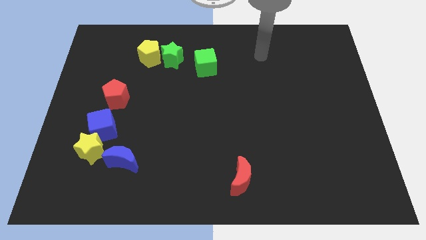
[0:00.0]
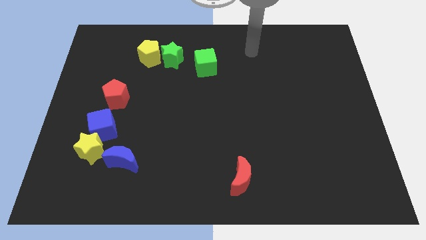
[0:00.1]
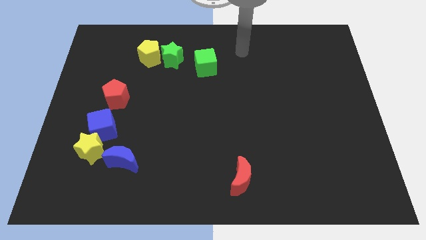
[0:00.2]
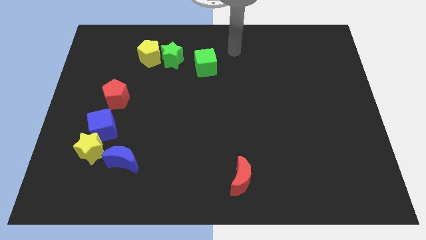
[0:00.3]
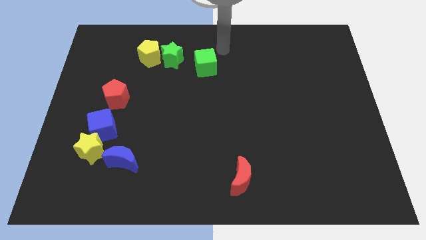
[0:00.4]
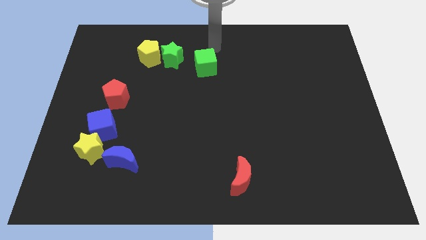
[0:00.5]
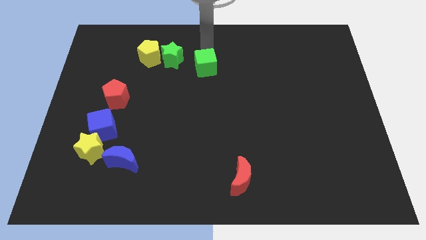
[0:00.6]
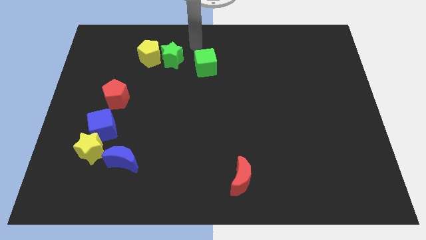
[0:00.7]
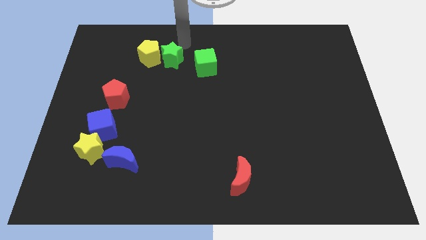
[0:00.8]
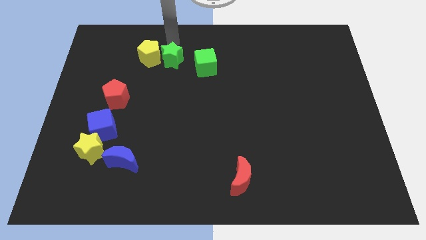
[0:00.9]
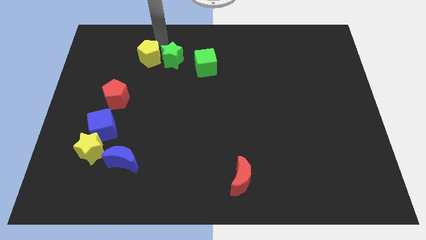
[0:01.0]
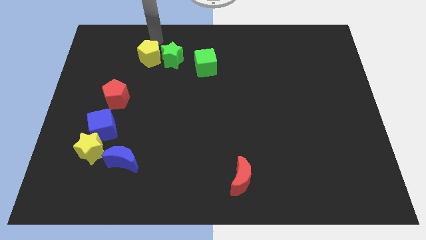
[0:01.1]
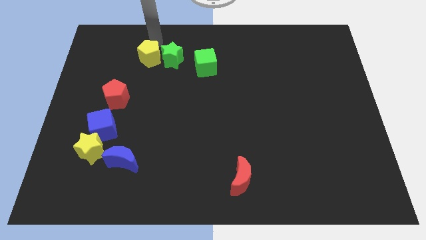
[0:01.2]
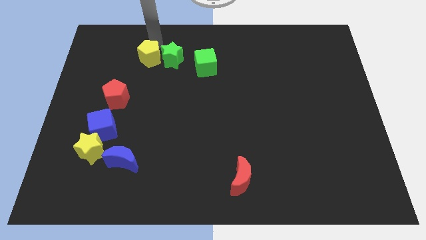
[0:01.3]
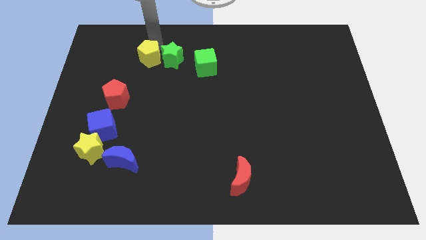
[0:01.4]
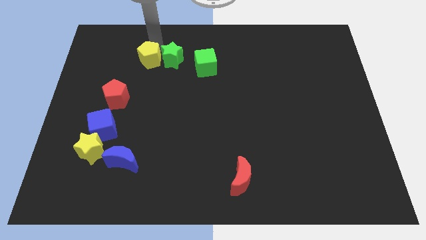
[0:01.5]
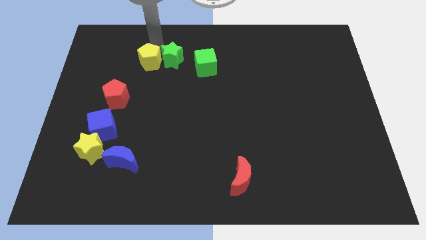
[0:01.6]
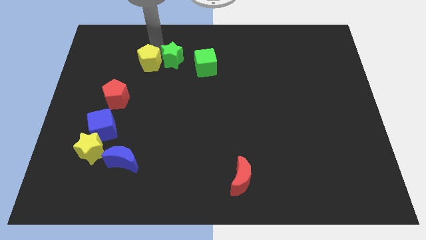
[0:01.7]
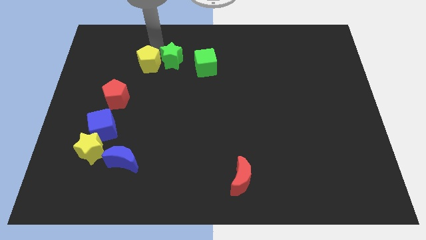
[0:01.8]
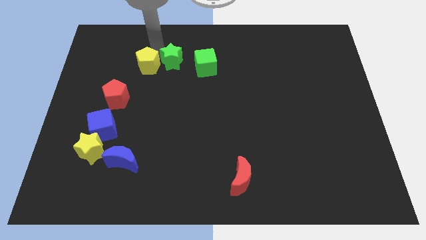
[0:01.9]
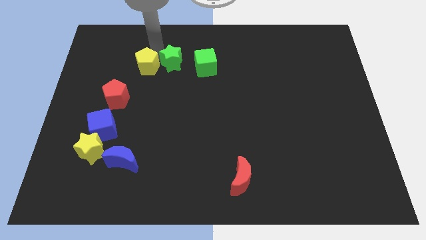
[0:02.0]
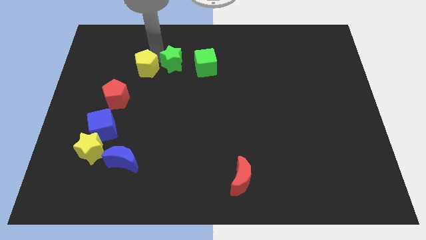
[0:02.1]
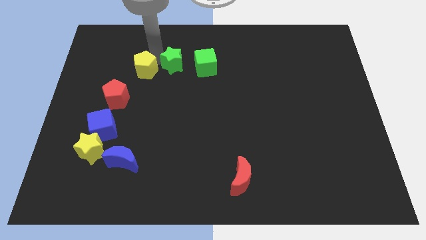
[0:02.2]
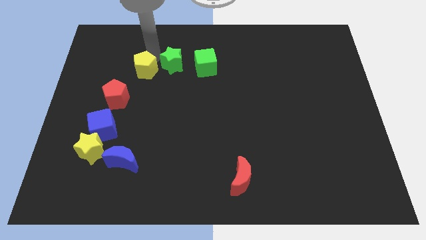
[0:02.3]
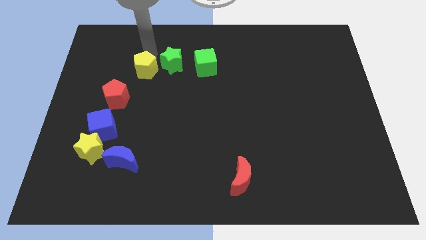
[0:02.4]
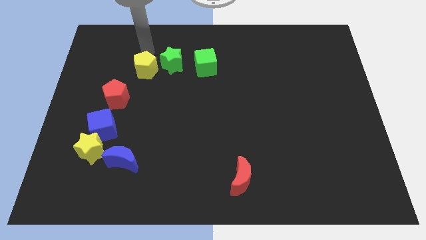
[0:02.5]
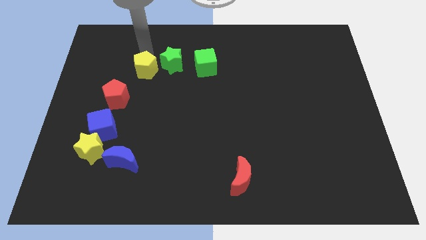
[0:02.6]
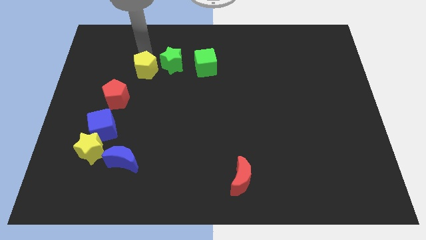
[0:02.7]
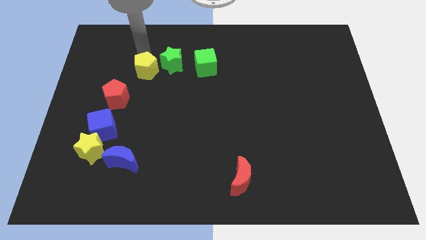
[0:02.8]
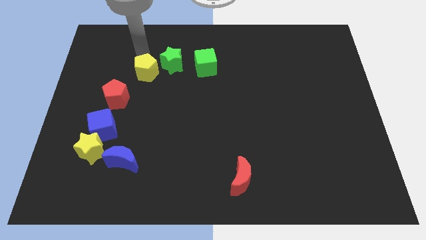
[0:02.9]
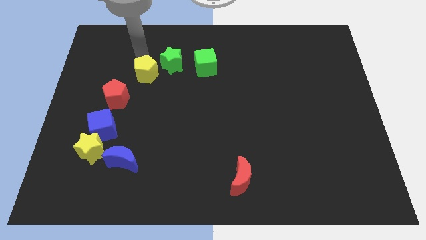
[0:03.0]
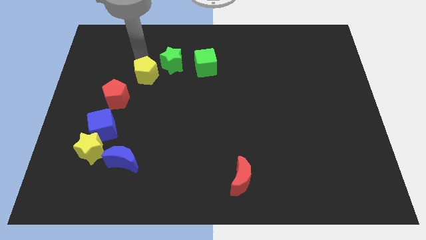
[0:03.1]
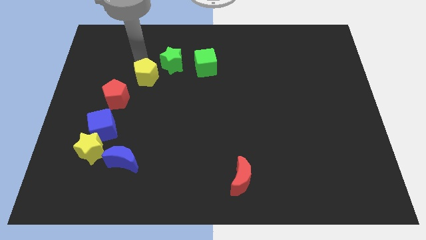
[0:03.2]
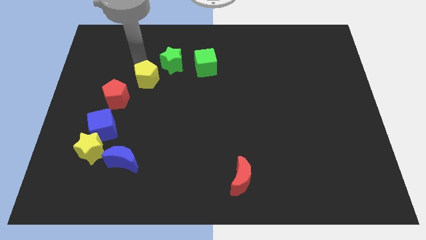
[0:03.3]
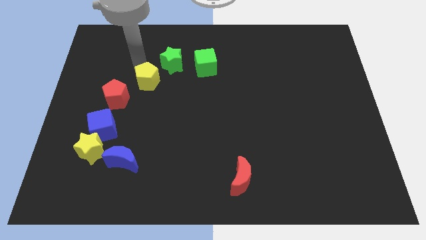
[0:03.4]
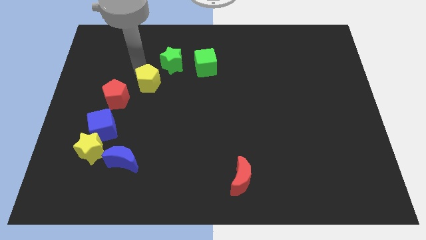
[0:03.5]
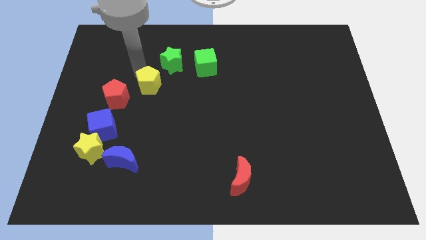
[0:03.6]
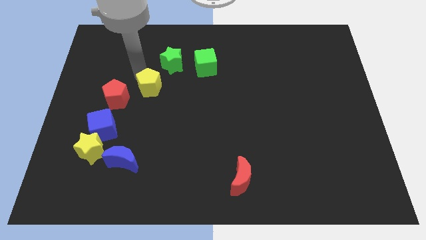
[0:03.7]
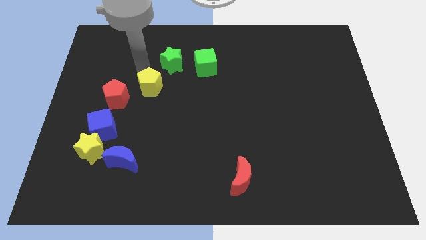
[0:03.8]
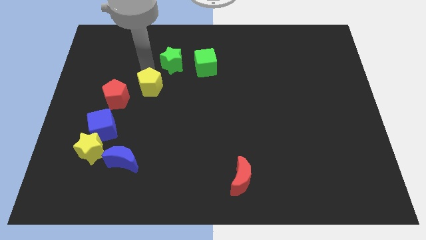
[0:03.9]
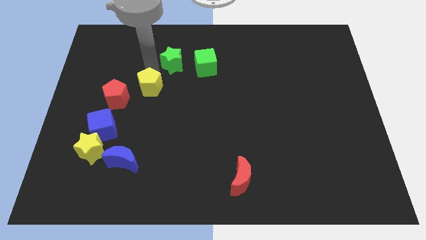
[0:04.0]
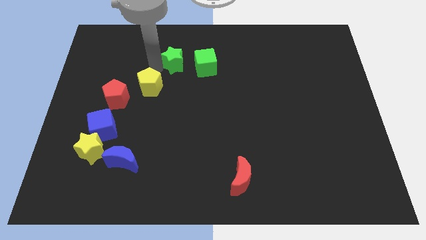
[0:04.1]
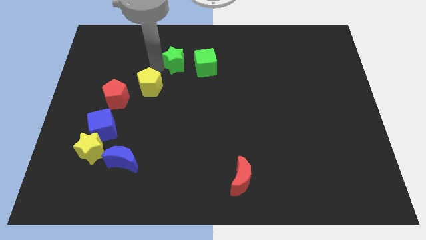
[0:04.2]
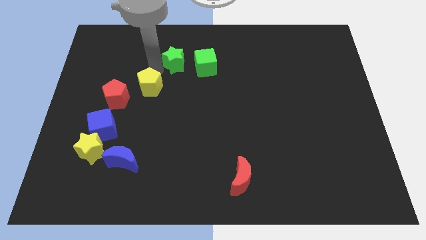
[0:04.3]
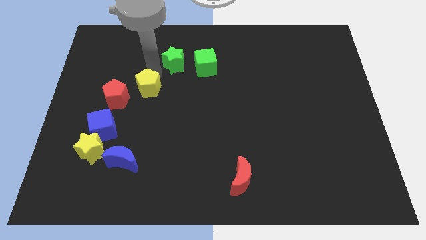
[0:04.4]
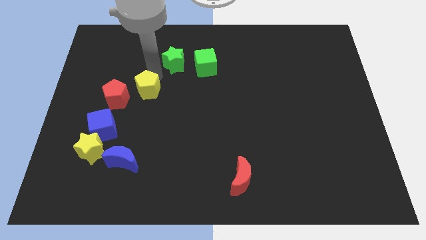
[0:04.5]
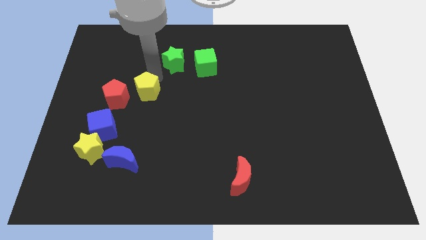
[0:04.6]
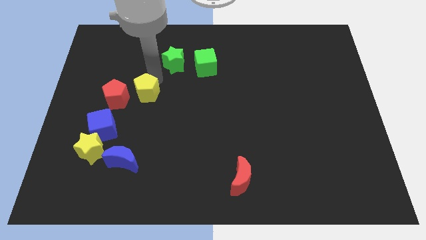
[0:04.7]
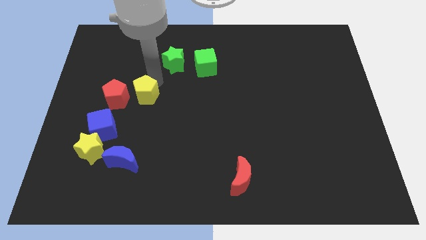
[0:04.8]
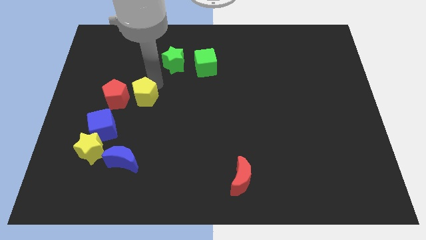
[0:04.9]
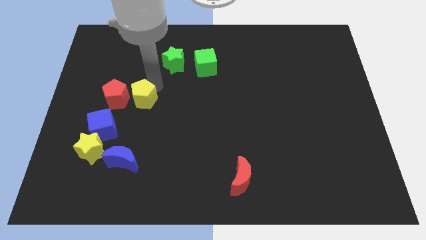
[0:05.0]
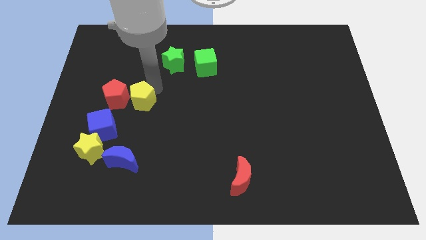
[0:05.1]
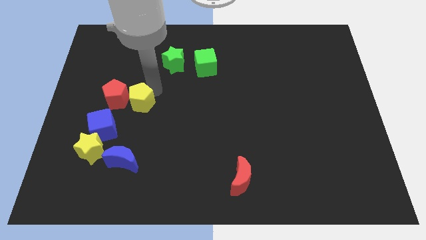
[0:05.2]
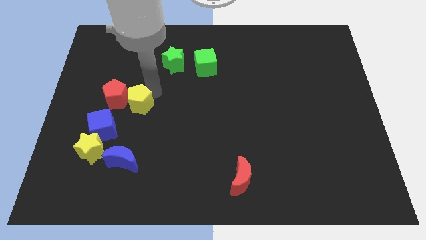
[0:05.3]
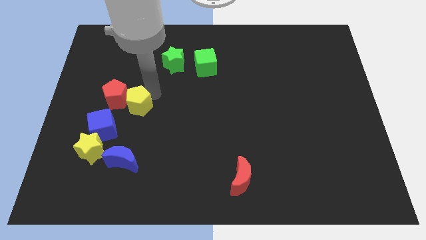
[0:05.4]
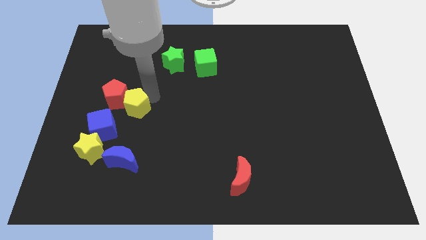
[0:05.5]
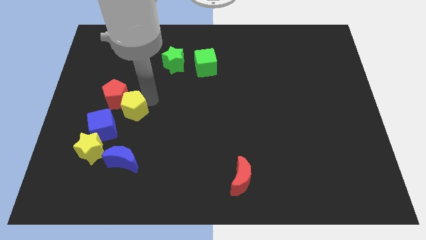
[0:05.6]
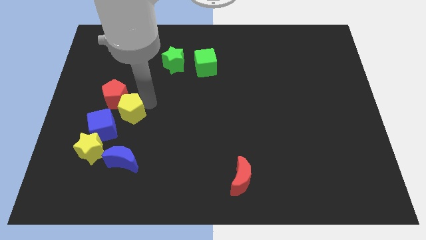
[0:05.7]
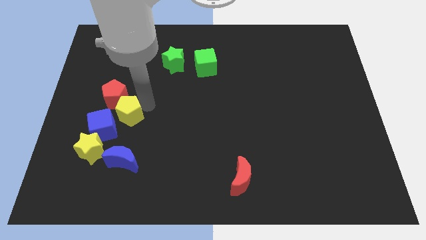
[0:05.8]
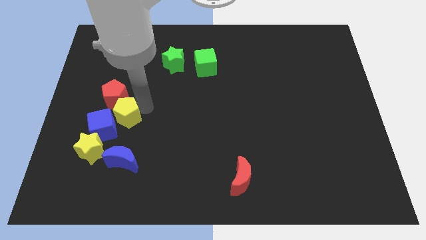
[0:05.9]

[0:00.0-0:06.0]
move the yellow pentagon towards the blue cube
